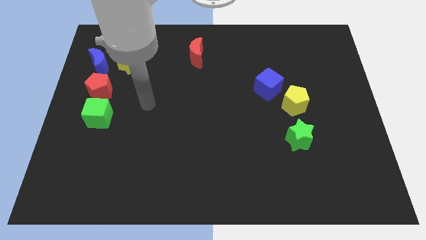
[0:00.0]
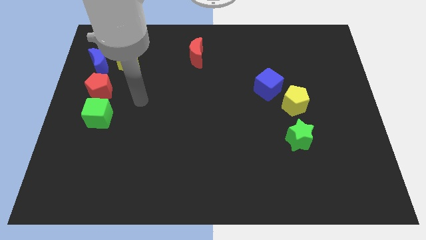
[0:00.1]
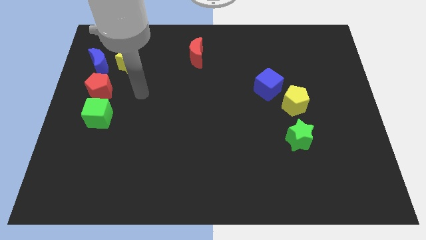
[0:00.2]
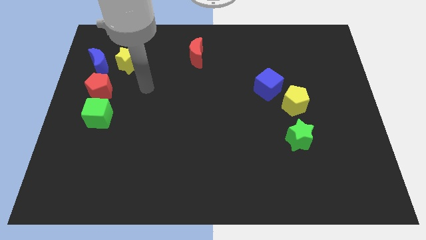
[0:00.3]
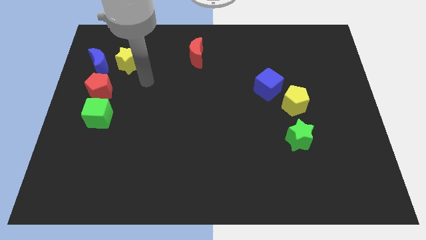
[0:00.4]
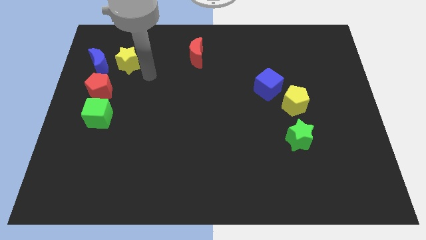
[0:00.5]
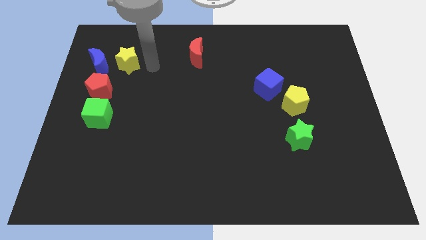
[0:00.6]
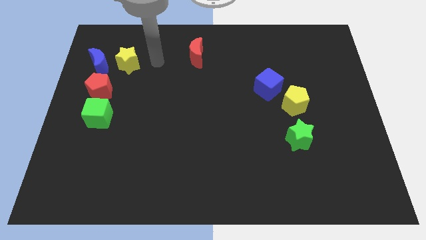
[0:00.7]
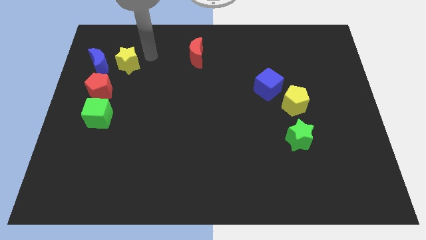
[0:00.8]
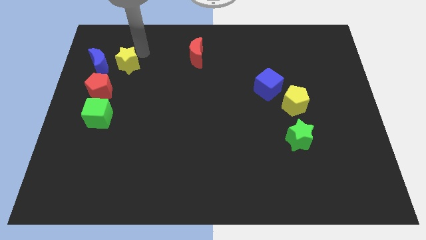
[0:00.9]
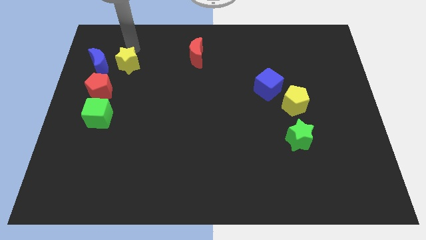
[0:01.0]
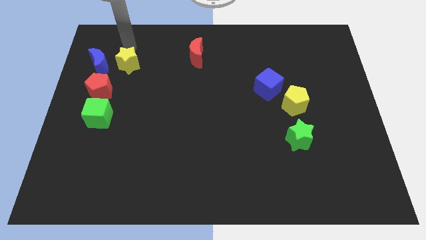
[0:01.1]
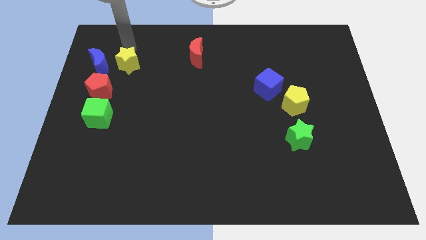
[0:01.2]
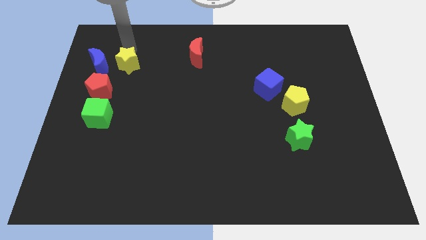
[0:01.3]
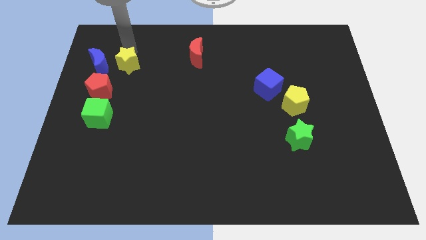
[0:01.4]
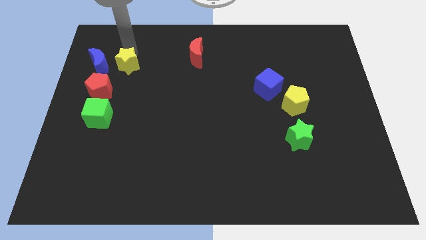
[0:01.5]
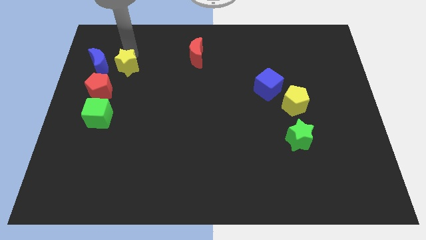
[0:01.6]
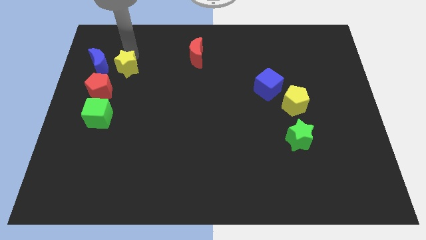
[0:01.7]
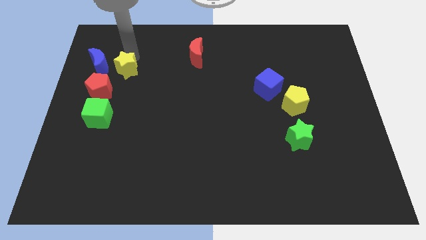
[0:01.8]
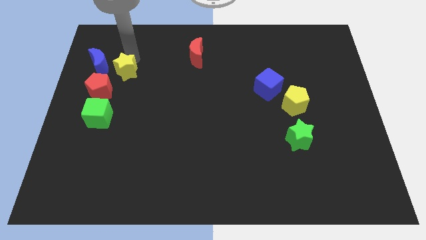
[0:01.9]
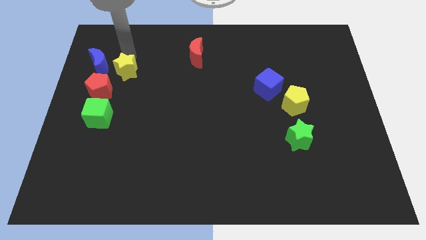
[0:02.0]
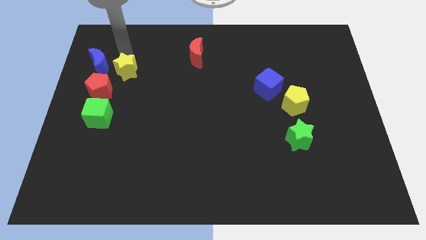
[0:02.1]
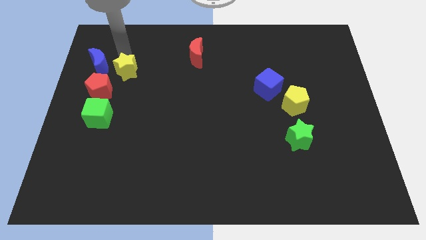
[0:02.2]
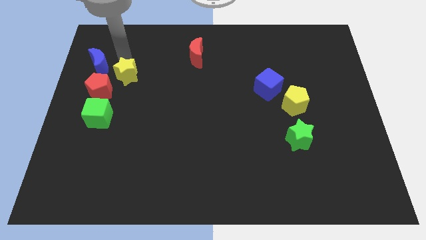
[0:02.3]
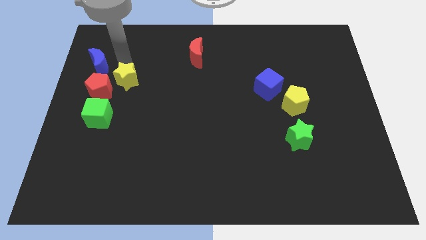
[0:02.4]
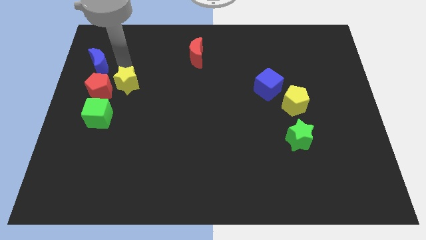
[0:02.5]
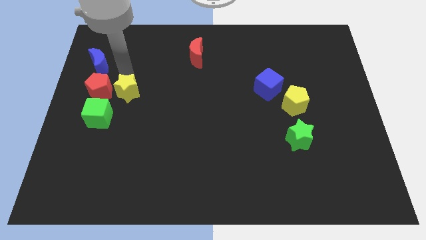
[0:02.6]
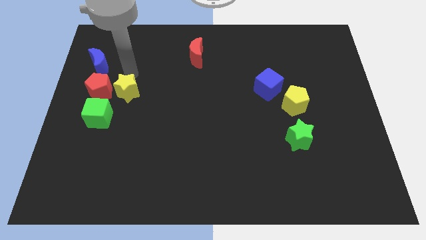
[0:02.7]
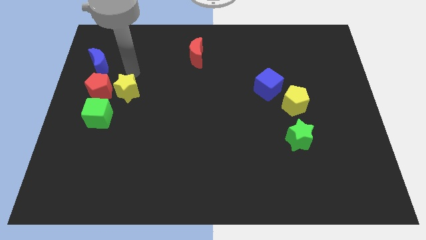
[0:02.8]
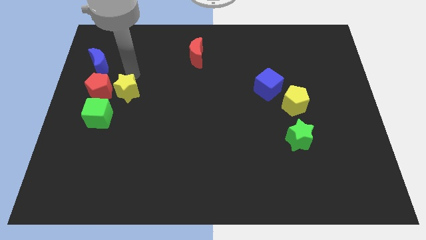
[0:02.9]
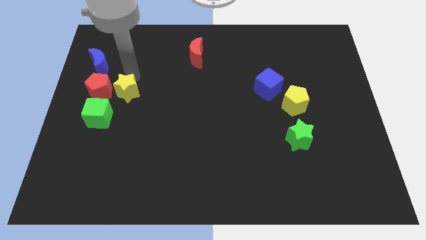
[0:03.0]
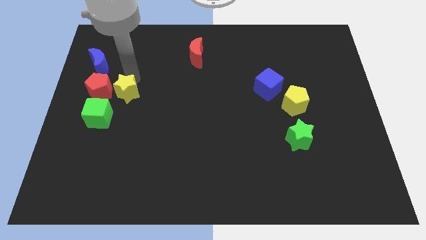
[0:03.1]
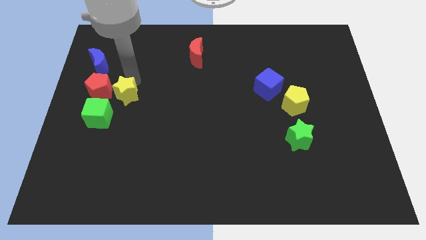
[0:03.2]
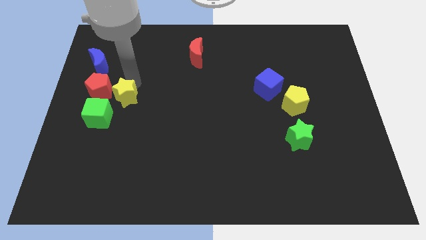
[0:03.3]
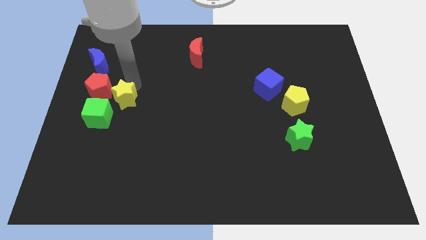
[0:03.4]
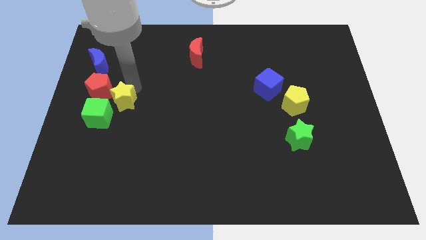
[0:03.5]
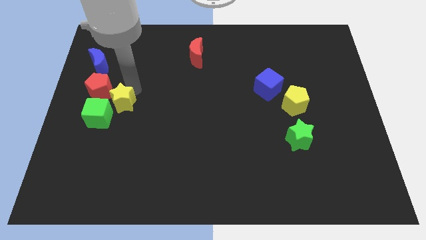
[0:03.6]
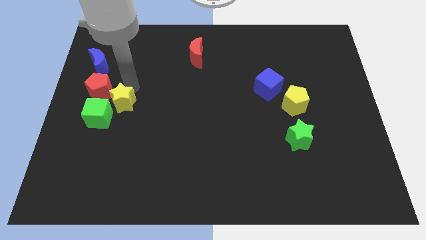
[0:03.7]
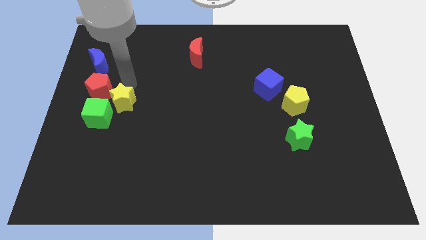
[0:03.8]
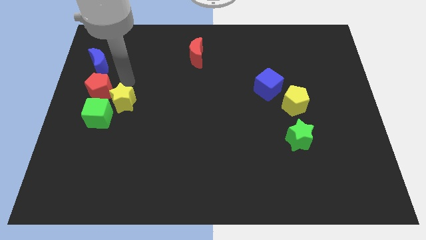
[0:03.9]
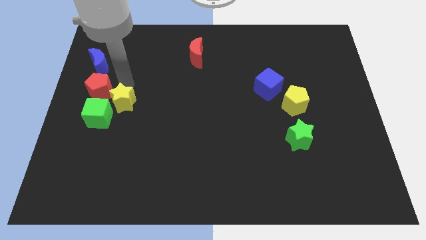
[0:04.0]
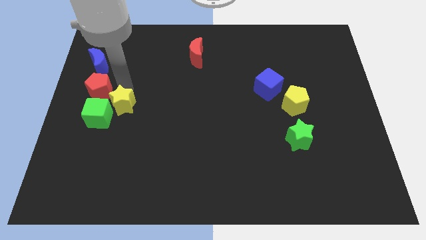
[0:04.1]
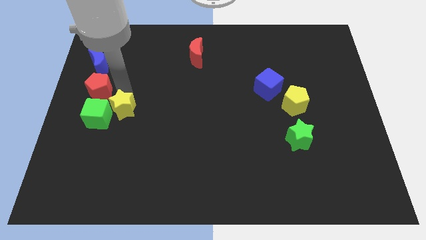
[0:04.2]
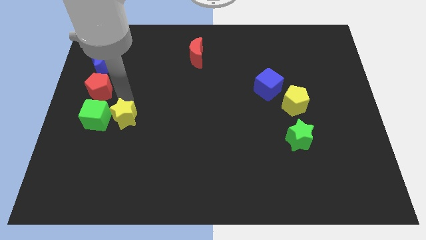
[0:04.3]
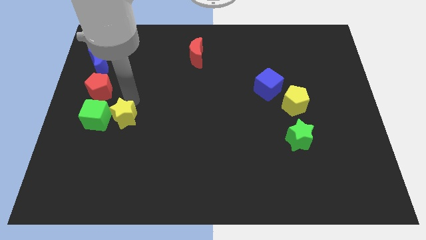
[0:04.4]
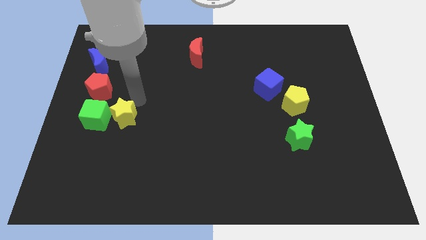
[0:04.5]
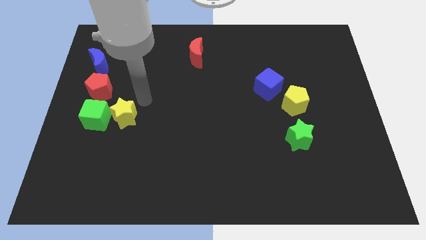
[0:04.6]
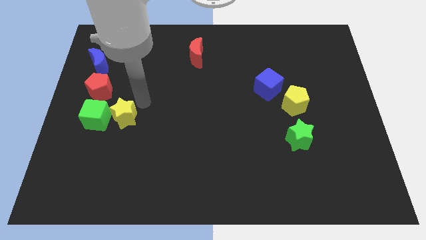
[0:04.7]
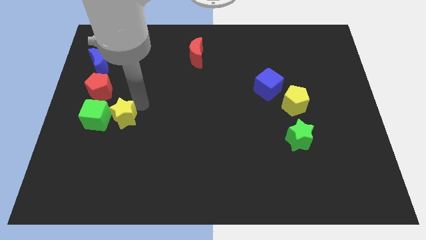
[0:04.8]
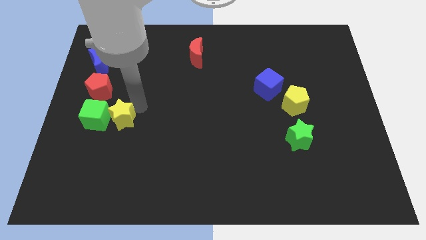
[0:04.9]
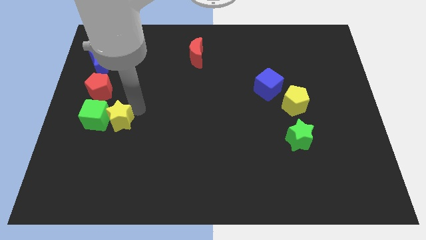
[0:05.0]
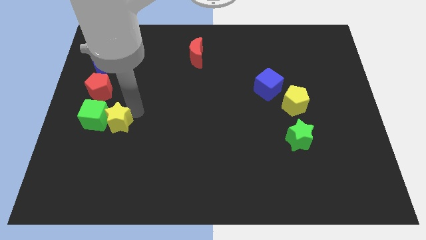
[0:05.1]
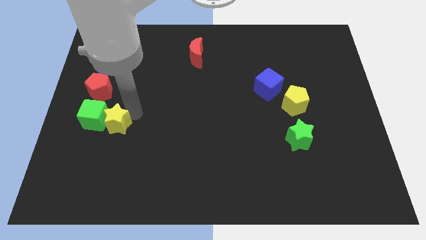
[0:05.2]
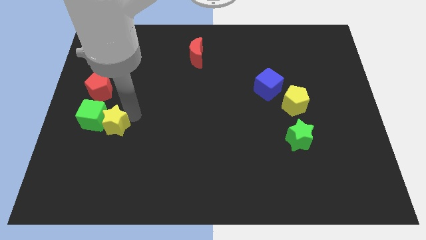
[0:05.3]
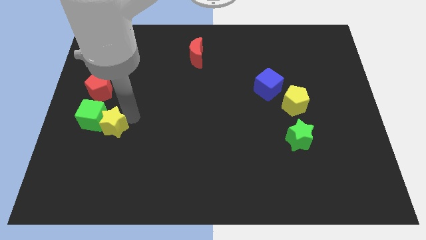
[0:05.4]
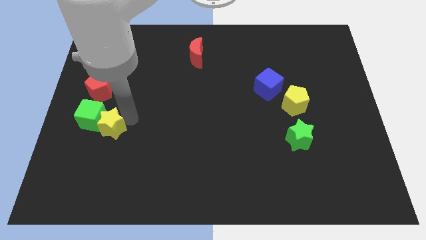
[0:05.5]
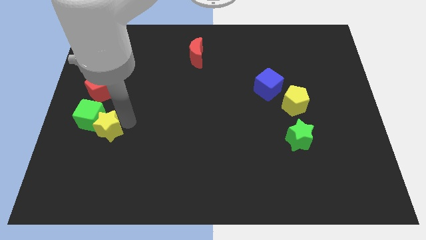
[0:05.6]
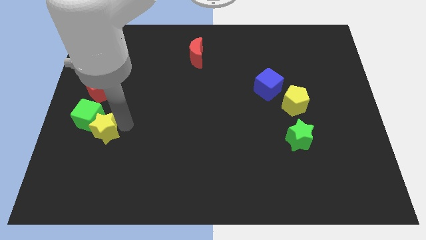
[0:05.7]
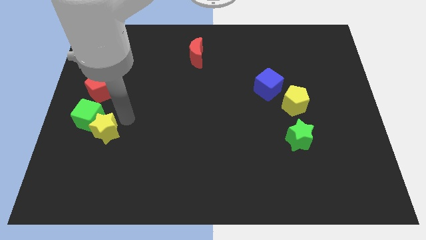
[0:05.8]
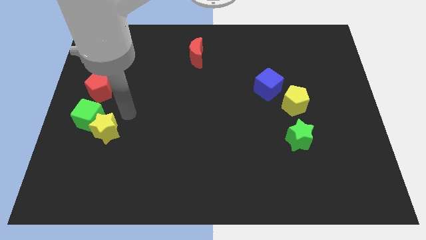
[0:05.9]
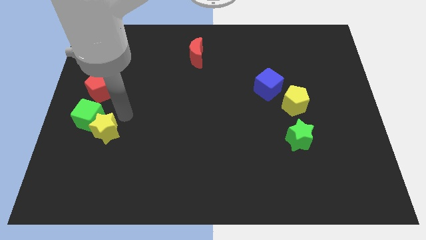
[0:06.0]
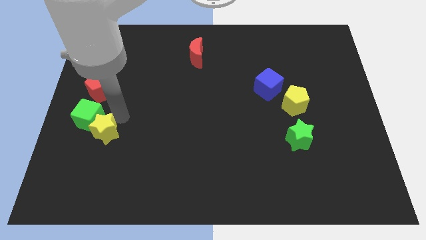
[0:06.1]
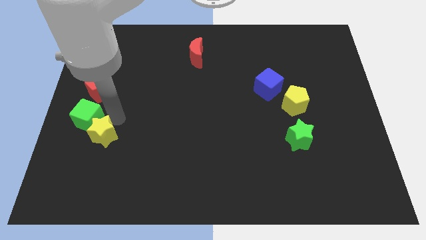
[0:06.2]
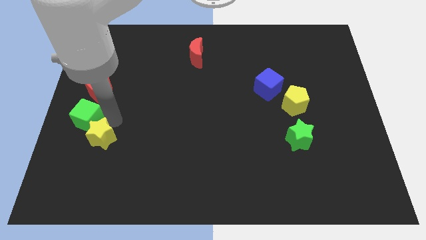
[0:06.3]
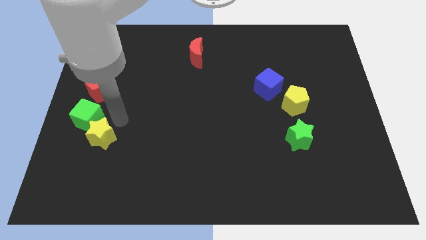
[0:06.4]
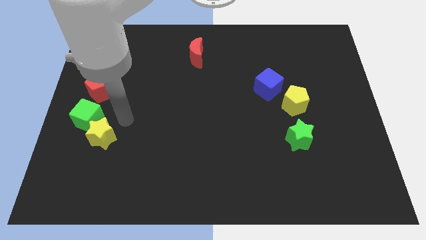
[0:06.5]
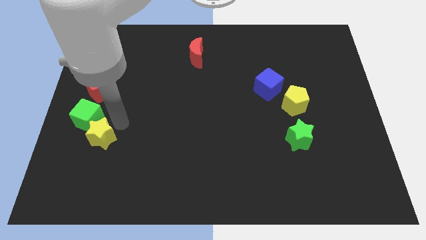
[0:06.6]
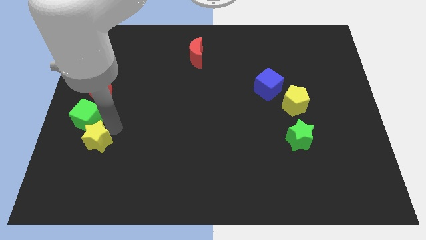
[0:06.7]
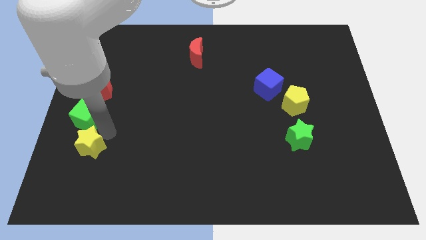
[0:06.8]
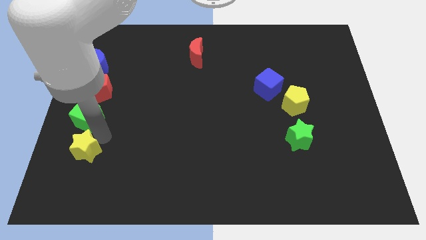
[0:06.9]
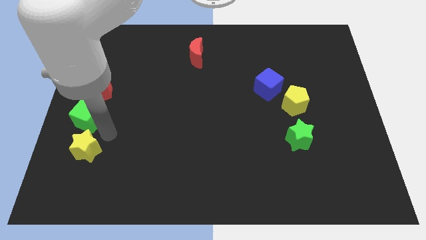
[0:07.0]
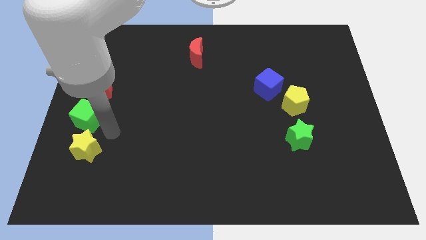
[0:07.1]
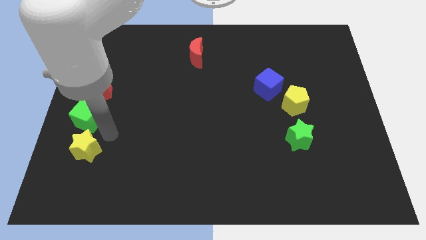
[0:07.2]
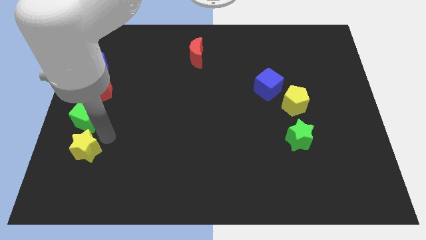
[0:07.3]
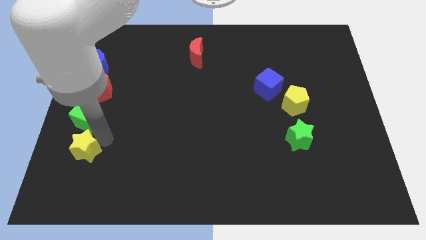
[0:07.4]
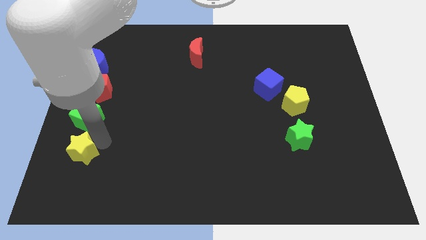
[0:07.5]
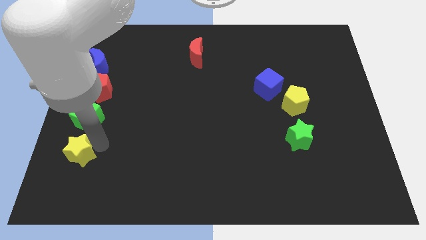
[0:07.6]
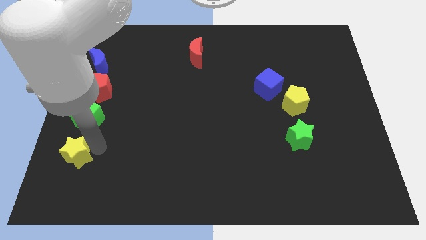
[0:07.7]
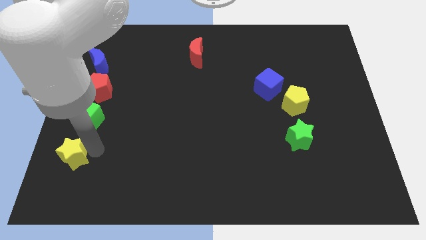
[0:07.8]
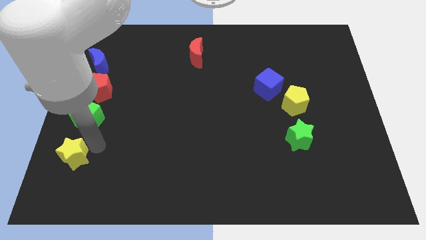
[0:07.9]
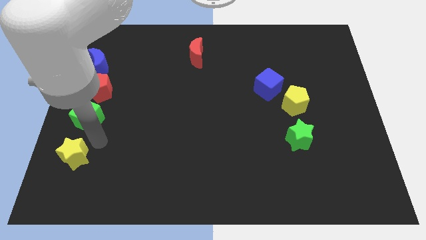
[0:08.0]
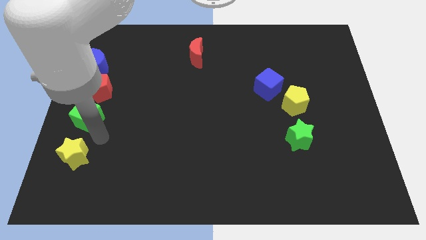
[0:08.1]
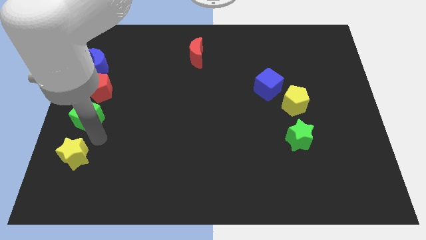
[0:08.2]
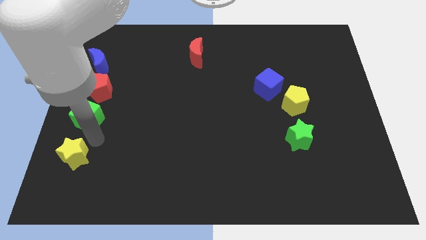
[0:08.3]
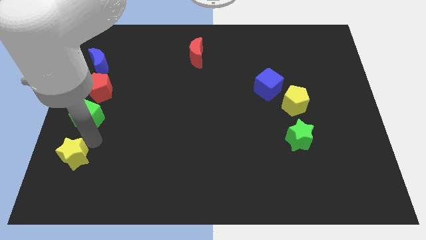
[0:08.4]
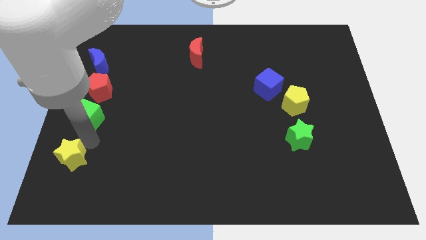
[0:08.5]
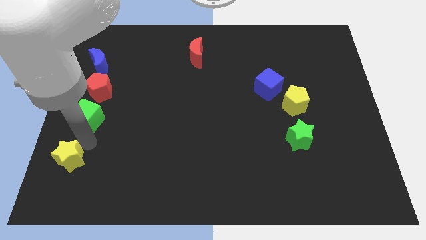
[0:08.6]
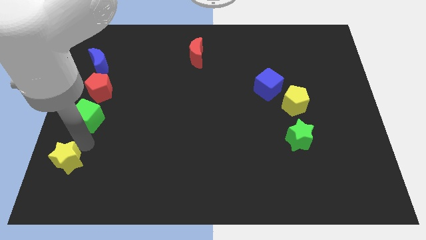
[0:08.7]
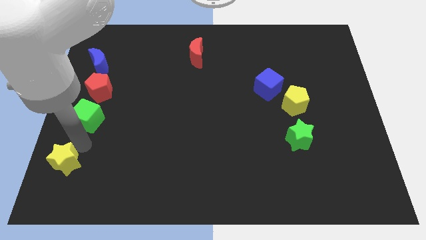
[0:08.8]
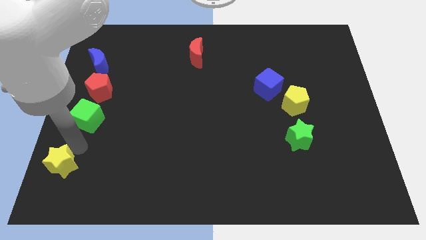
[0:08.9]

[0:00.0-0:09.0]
slide the yellow star to the bottom left of the board
